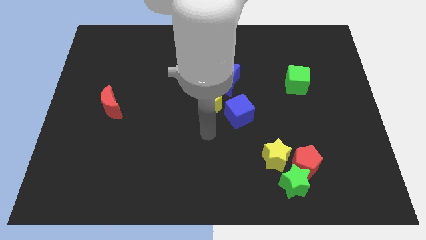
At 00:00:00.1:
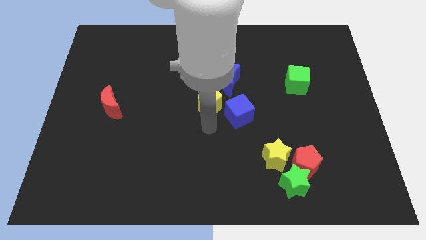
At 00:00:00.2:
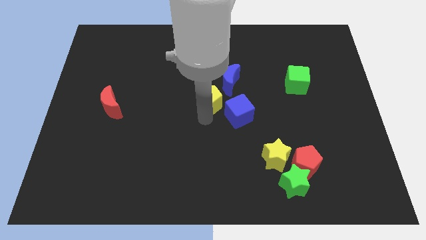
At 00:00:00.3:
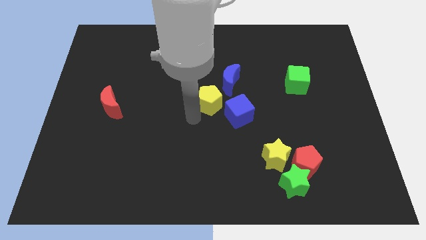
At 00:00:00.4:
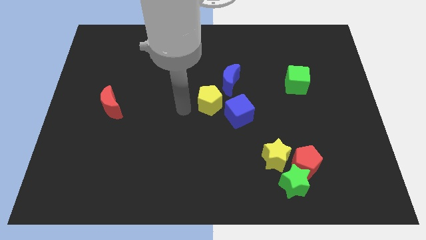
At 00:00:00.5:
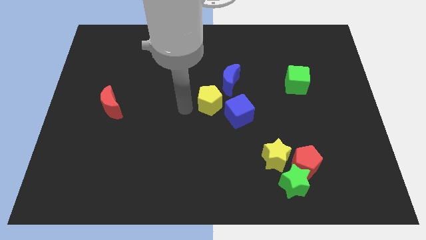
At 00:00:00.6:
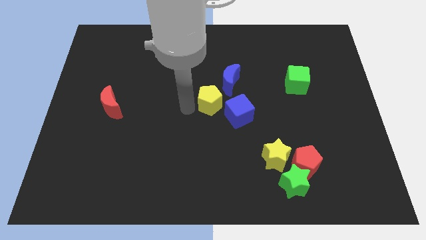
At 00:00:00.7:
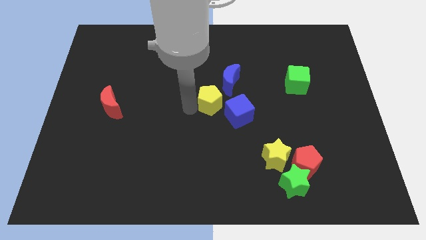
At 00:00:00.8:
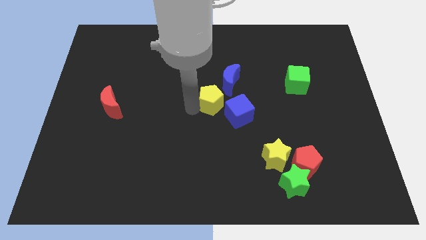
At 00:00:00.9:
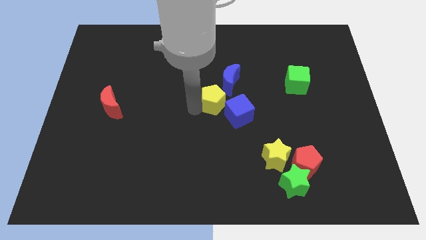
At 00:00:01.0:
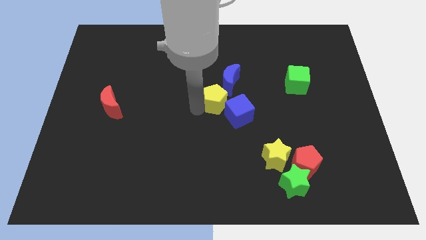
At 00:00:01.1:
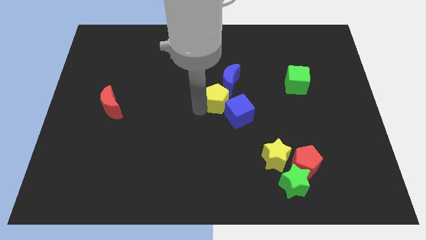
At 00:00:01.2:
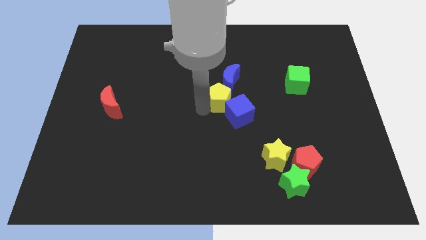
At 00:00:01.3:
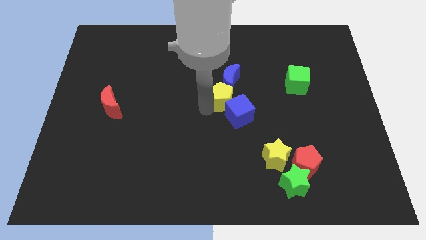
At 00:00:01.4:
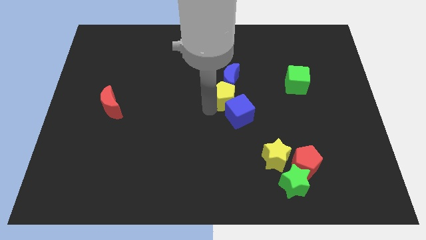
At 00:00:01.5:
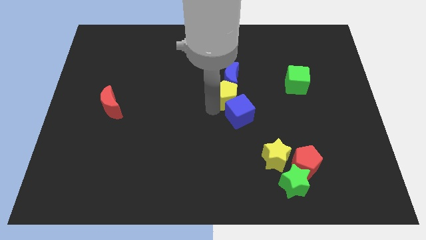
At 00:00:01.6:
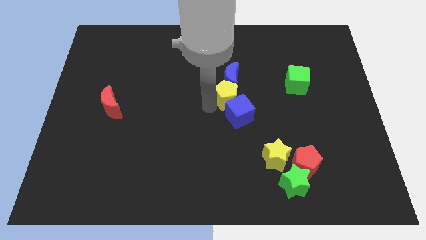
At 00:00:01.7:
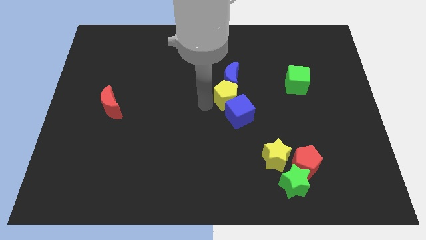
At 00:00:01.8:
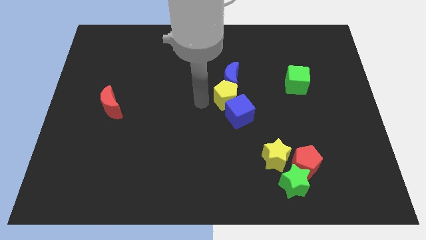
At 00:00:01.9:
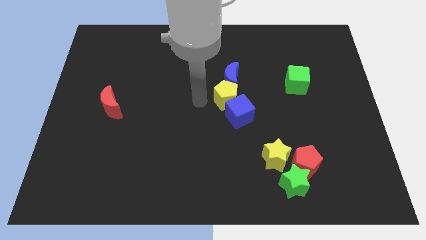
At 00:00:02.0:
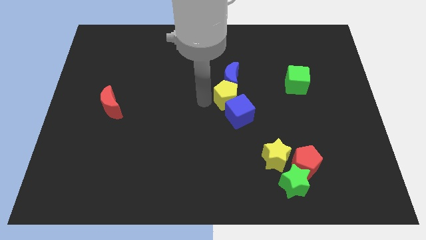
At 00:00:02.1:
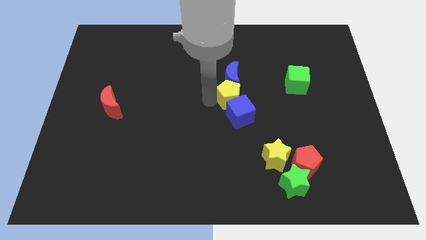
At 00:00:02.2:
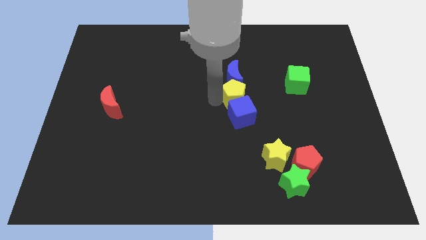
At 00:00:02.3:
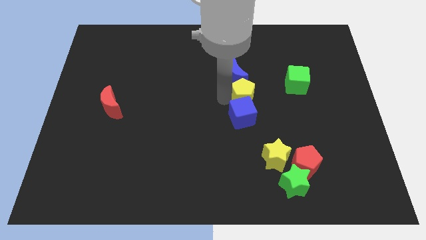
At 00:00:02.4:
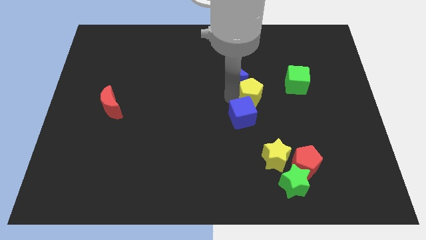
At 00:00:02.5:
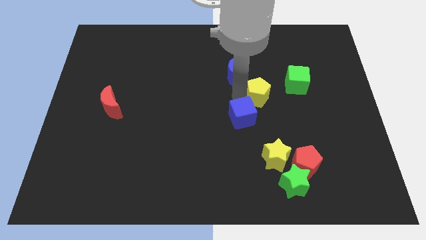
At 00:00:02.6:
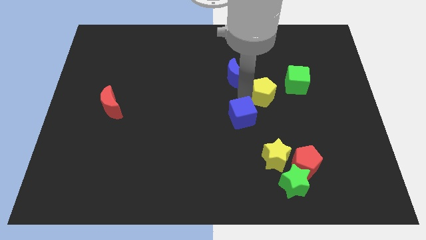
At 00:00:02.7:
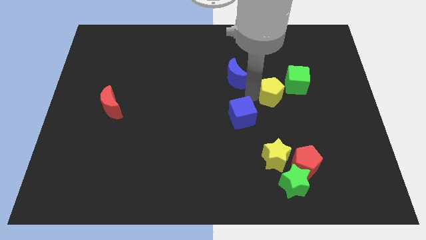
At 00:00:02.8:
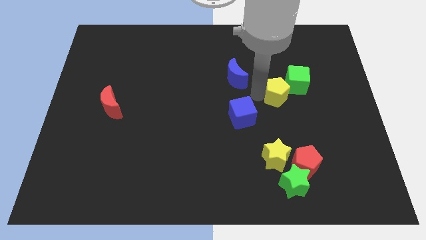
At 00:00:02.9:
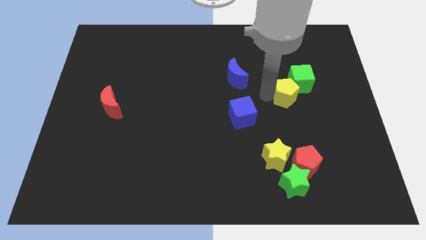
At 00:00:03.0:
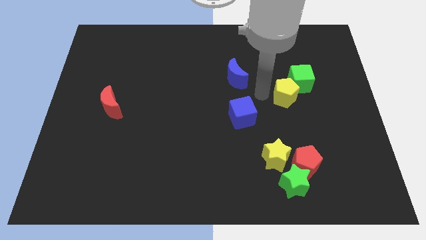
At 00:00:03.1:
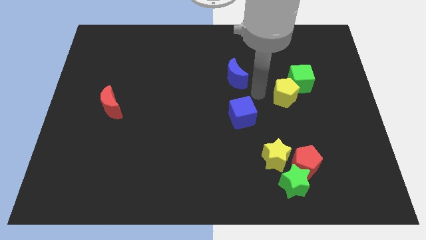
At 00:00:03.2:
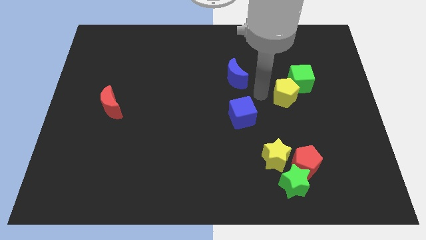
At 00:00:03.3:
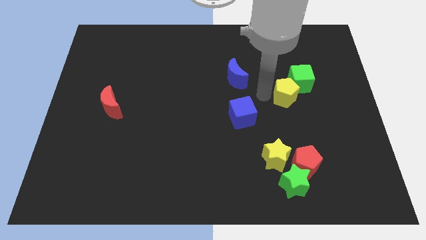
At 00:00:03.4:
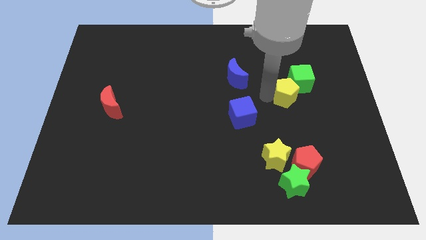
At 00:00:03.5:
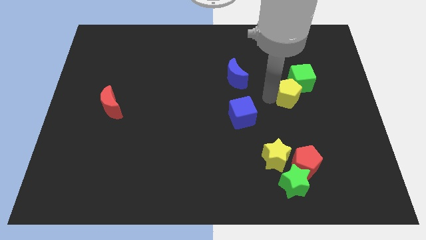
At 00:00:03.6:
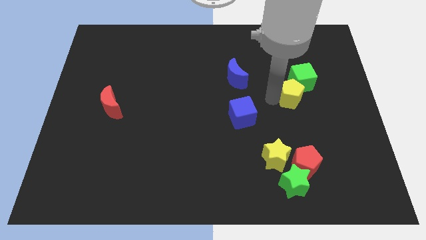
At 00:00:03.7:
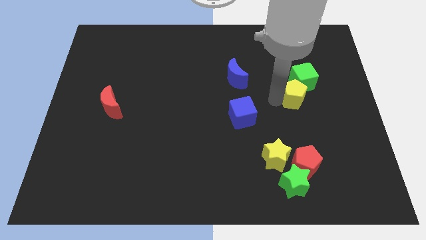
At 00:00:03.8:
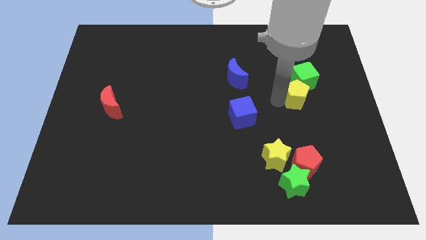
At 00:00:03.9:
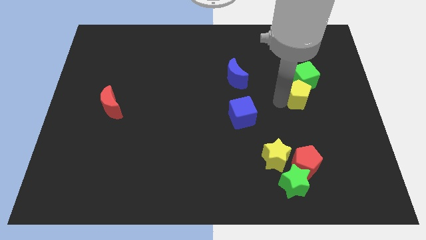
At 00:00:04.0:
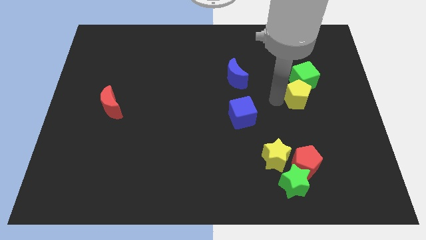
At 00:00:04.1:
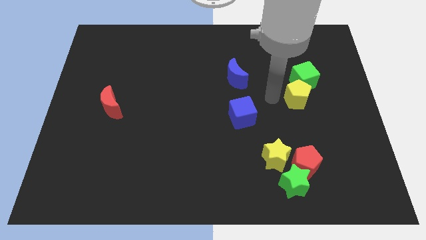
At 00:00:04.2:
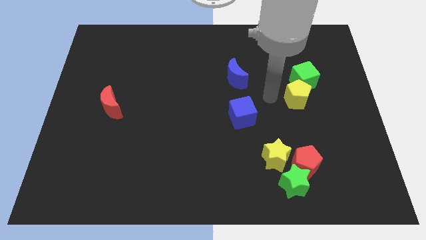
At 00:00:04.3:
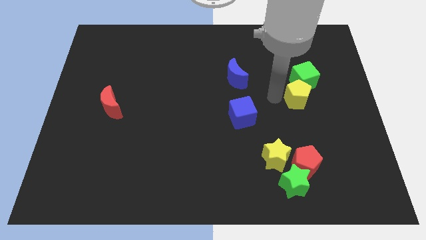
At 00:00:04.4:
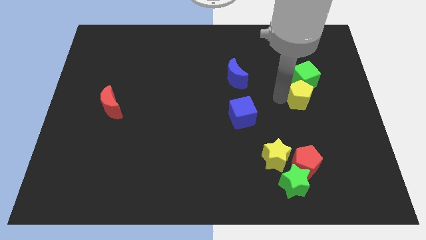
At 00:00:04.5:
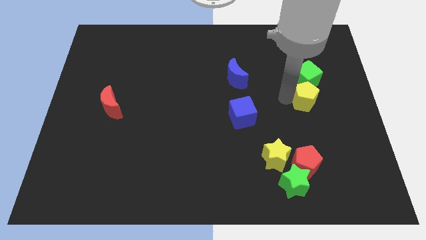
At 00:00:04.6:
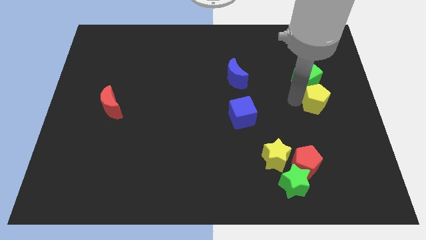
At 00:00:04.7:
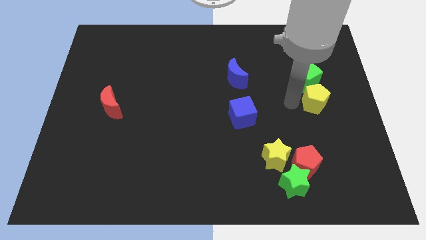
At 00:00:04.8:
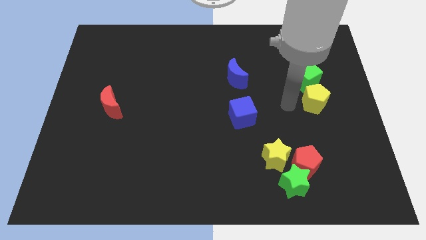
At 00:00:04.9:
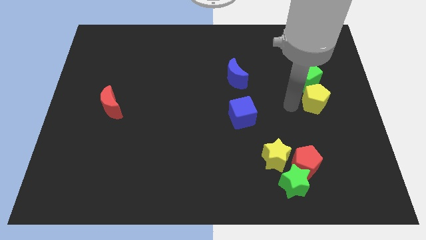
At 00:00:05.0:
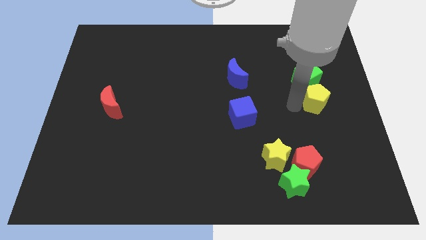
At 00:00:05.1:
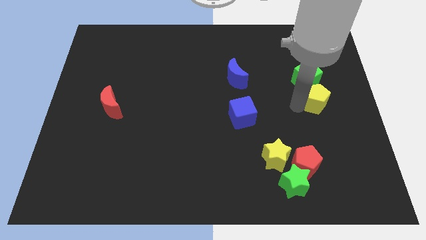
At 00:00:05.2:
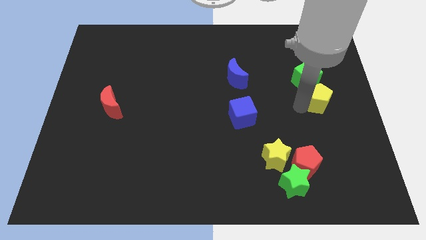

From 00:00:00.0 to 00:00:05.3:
push the yellow pentagon to the right side

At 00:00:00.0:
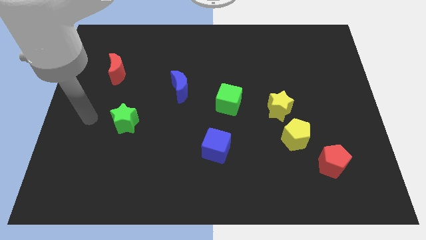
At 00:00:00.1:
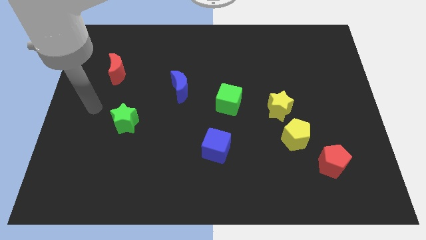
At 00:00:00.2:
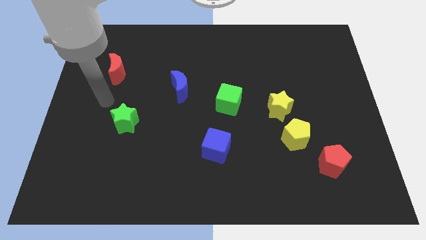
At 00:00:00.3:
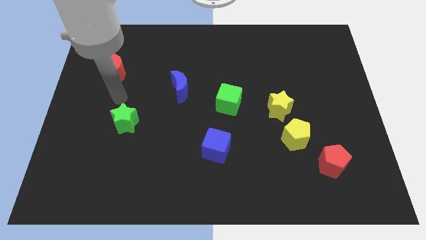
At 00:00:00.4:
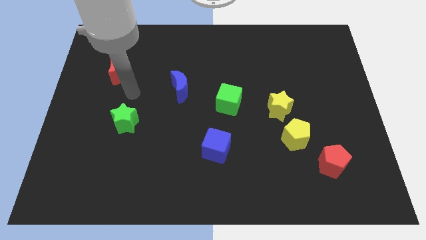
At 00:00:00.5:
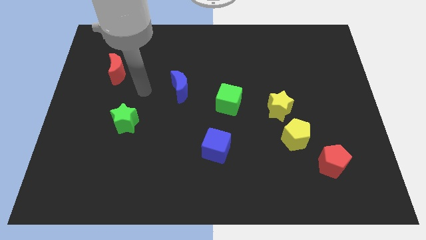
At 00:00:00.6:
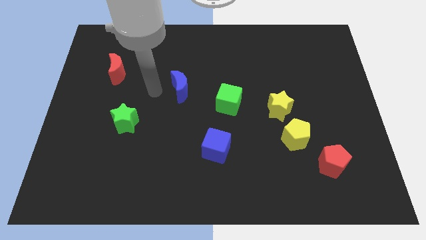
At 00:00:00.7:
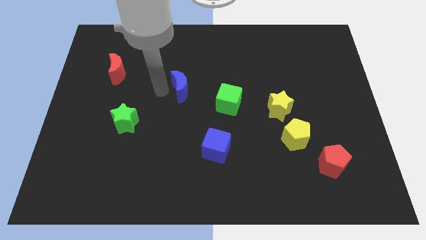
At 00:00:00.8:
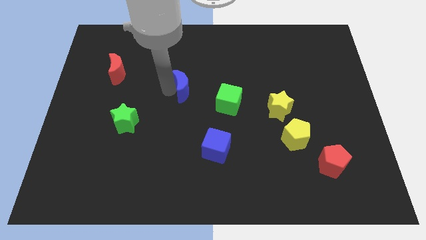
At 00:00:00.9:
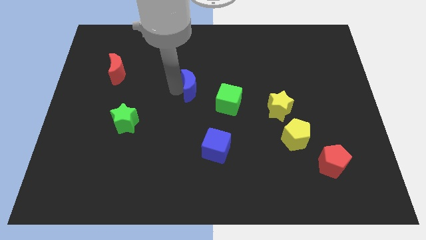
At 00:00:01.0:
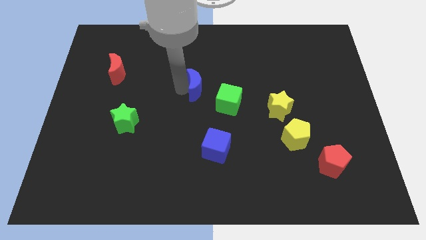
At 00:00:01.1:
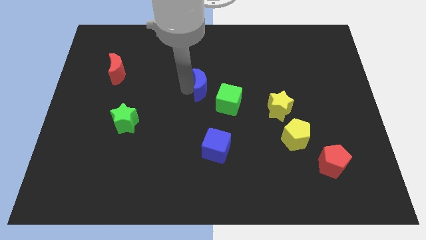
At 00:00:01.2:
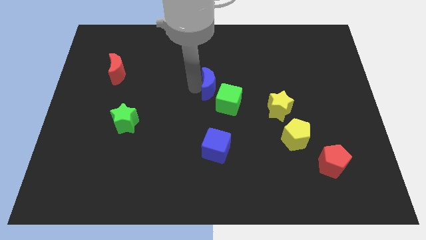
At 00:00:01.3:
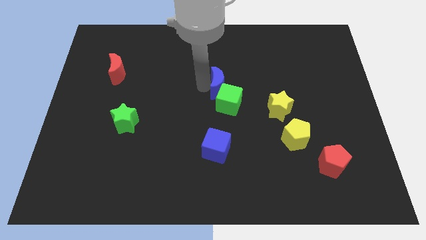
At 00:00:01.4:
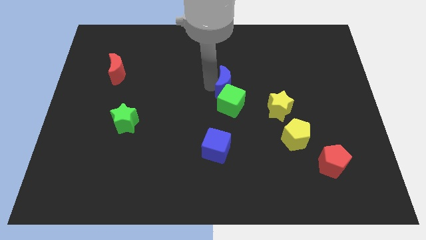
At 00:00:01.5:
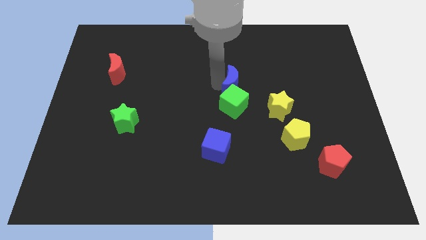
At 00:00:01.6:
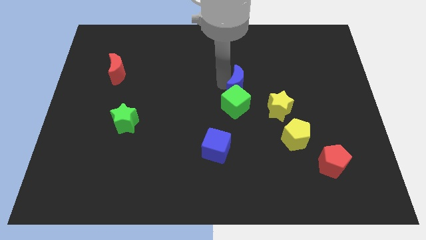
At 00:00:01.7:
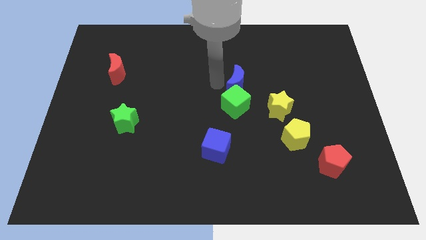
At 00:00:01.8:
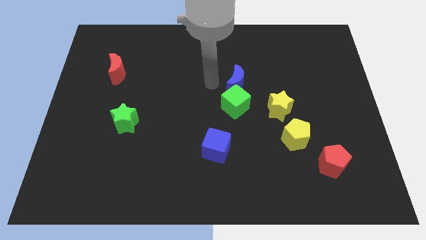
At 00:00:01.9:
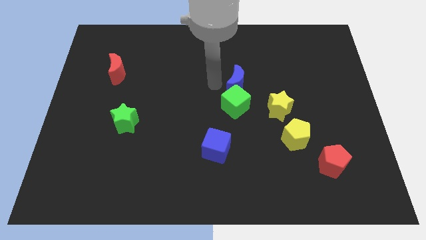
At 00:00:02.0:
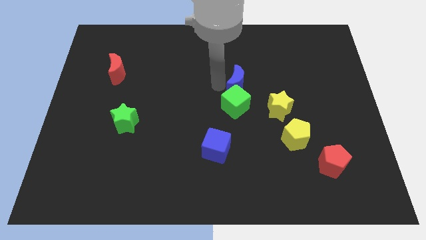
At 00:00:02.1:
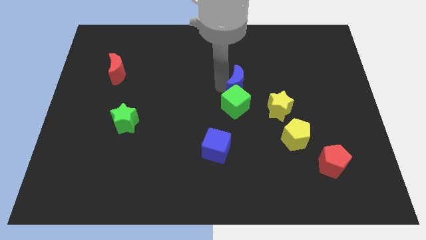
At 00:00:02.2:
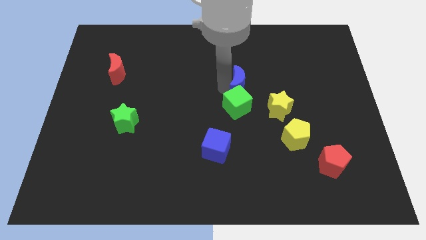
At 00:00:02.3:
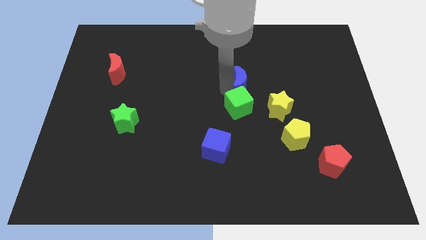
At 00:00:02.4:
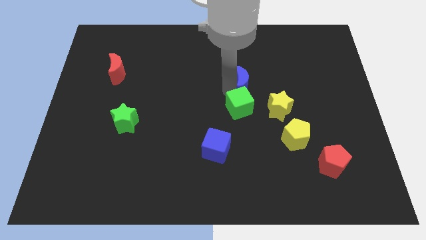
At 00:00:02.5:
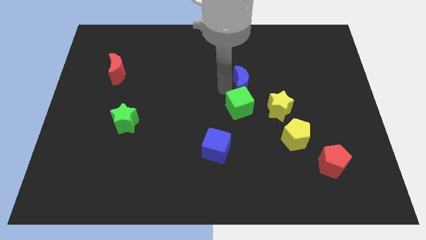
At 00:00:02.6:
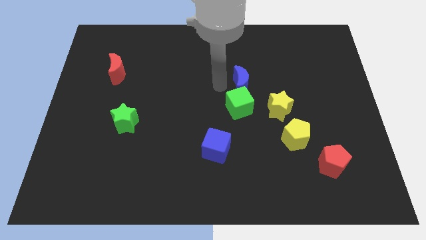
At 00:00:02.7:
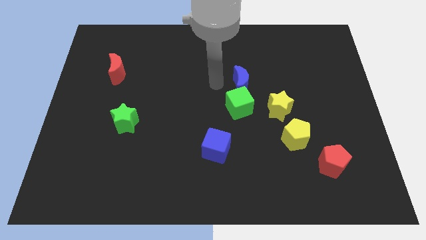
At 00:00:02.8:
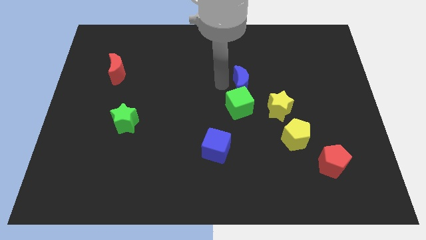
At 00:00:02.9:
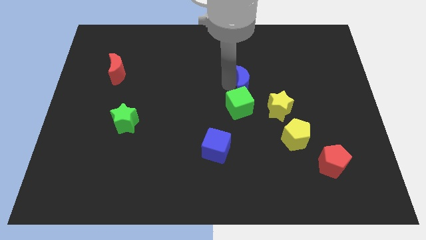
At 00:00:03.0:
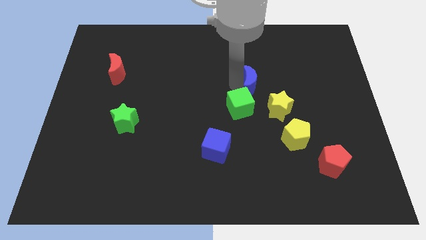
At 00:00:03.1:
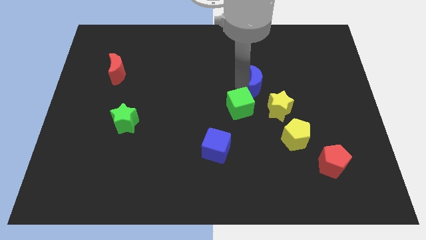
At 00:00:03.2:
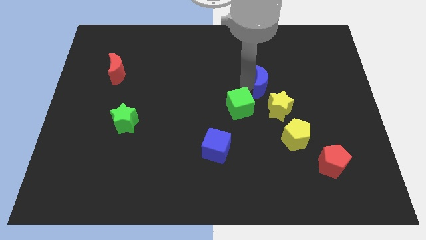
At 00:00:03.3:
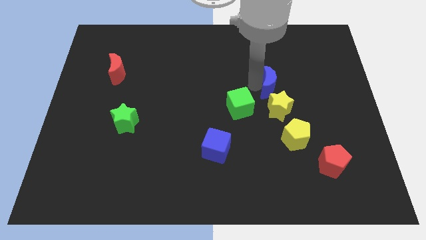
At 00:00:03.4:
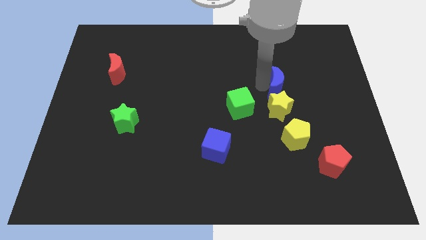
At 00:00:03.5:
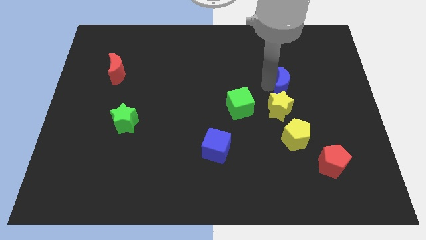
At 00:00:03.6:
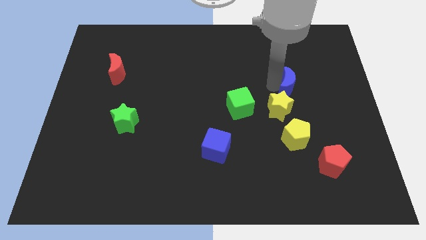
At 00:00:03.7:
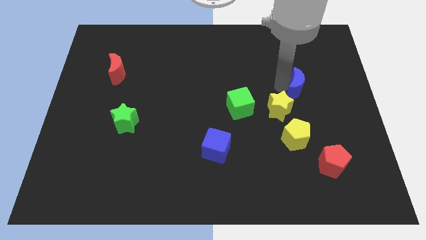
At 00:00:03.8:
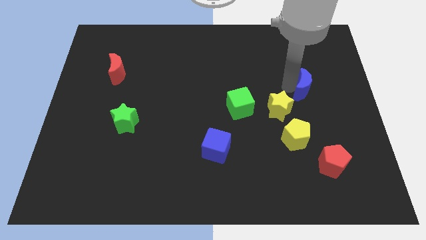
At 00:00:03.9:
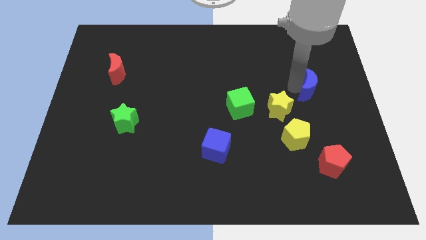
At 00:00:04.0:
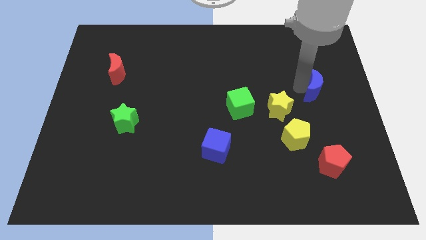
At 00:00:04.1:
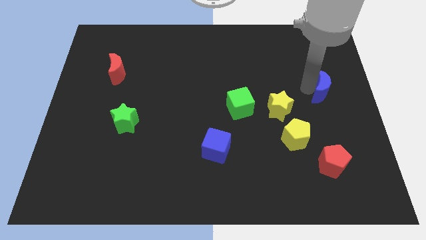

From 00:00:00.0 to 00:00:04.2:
push the blue moon to the right side of the board
